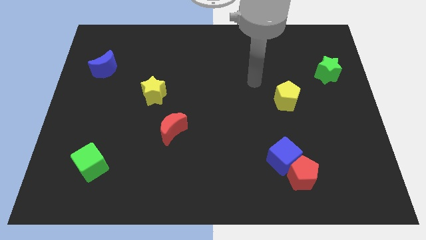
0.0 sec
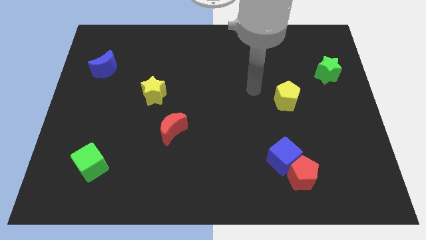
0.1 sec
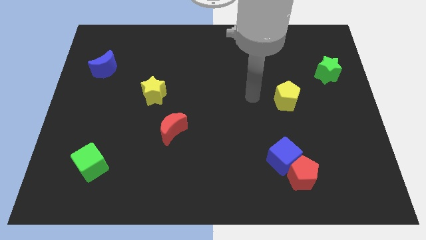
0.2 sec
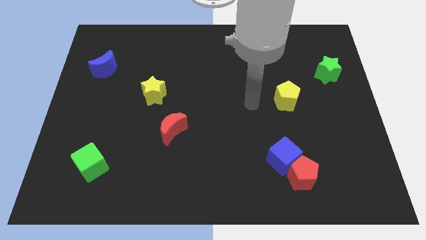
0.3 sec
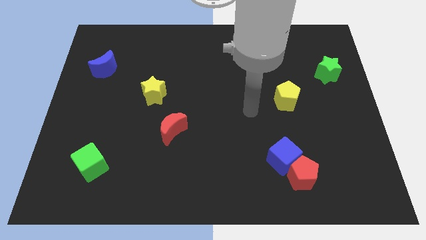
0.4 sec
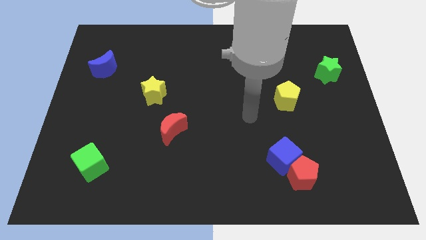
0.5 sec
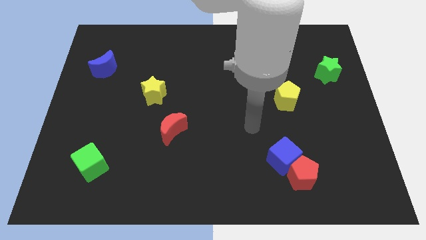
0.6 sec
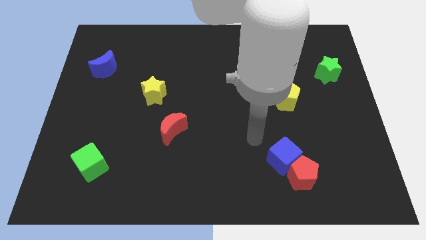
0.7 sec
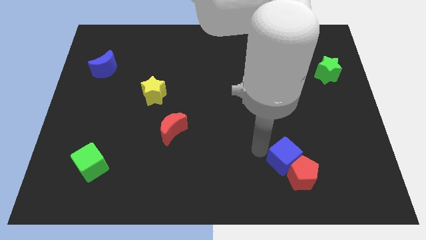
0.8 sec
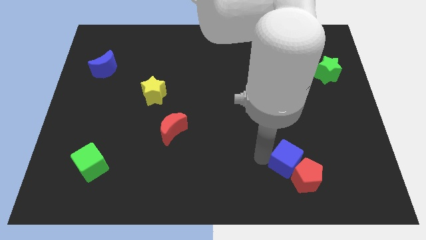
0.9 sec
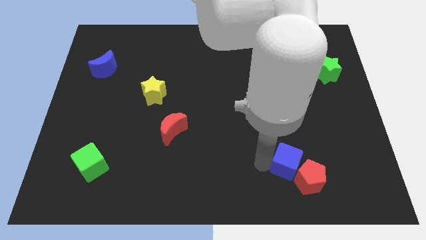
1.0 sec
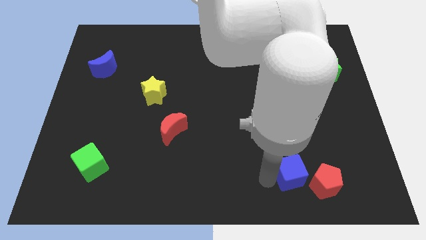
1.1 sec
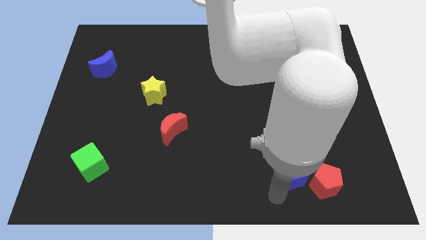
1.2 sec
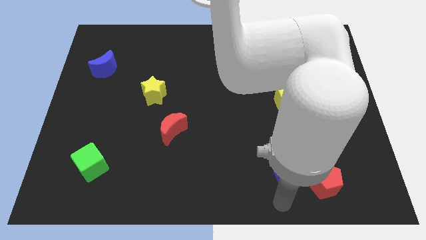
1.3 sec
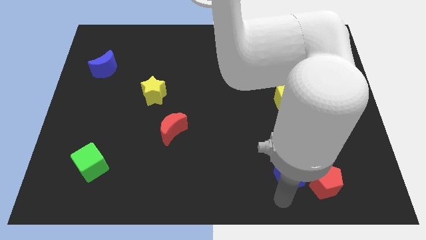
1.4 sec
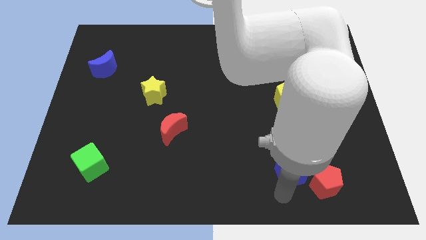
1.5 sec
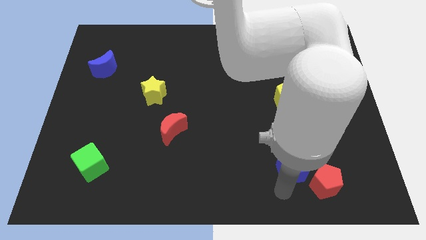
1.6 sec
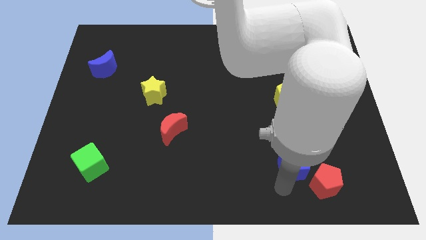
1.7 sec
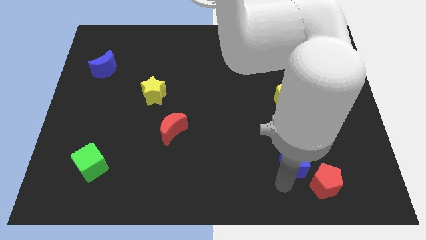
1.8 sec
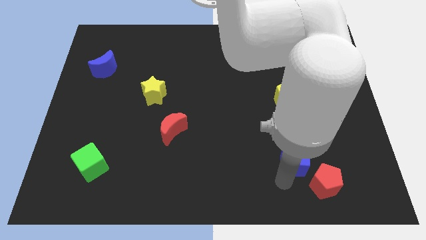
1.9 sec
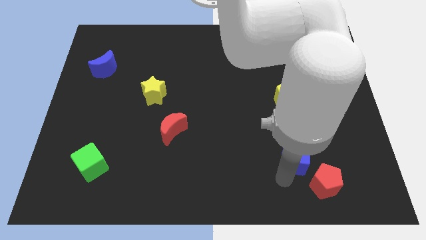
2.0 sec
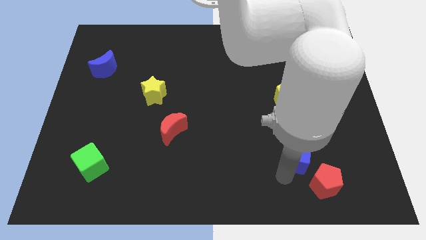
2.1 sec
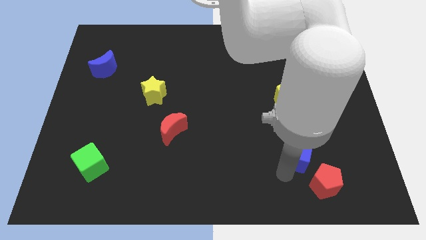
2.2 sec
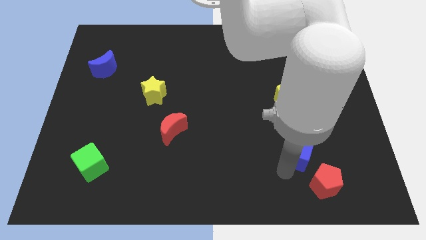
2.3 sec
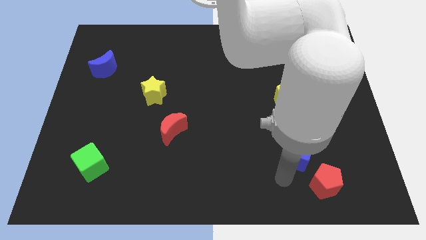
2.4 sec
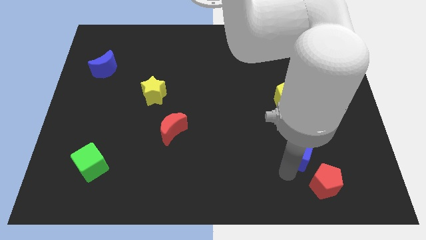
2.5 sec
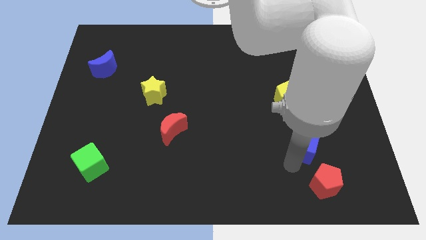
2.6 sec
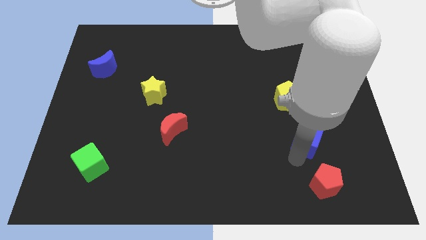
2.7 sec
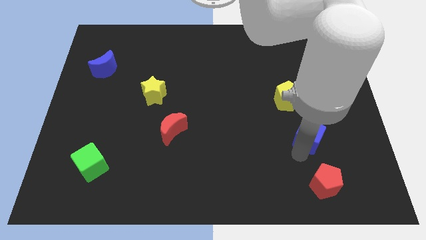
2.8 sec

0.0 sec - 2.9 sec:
slightly push the blue cube diagonally upwards and to the right

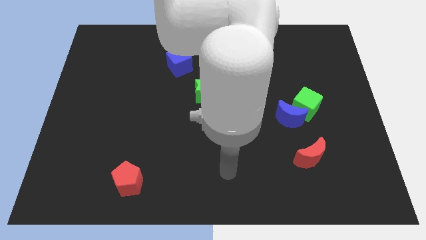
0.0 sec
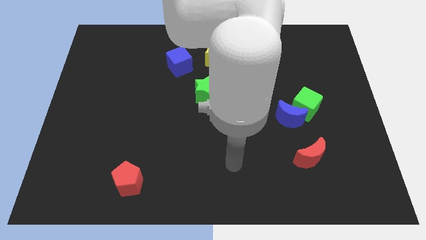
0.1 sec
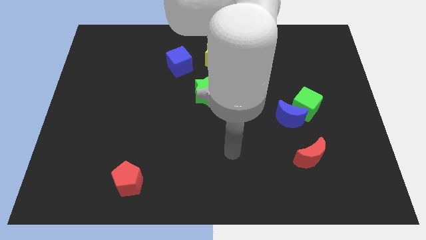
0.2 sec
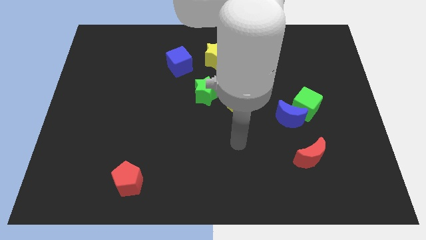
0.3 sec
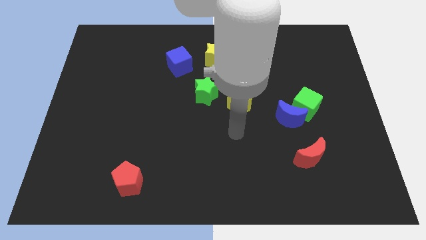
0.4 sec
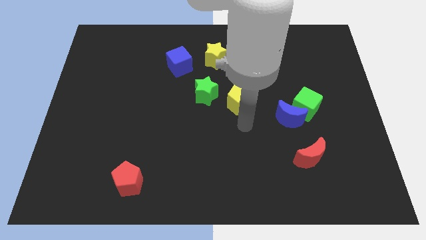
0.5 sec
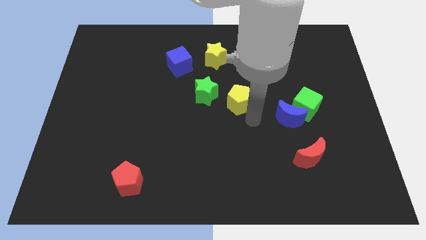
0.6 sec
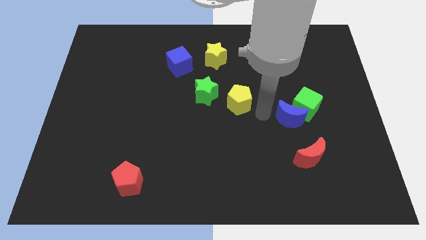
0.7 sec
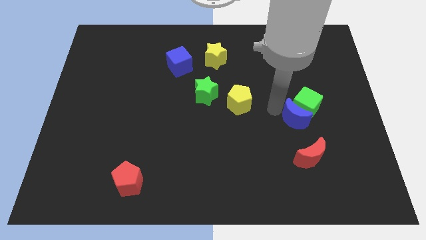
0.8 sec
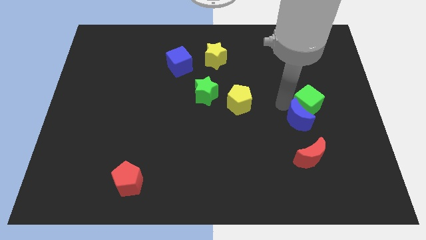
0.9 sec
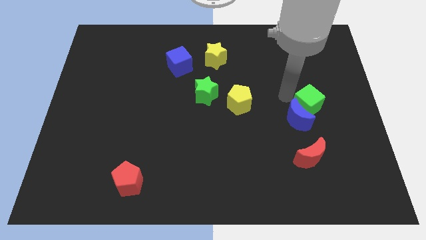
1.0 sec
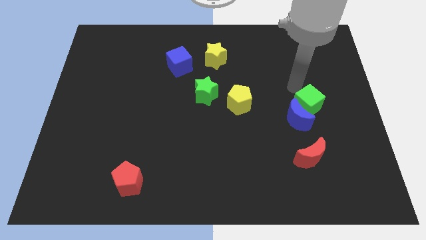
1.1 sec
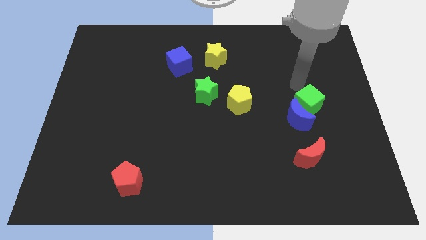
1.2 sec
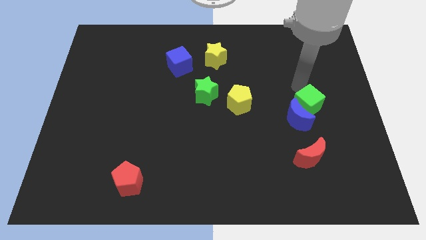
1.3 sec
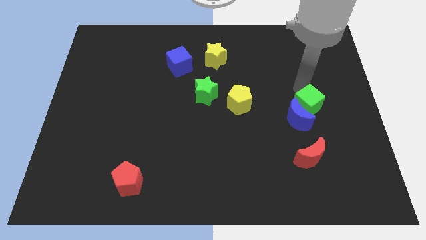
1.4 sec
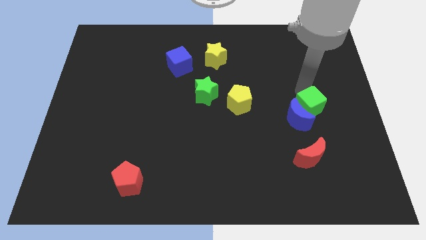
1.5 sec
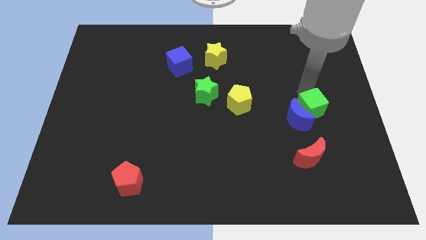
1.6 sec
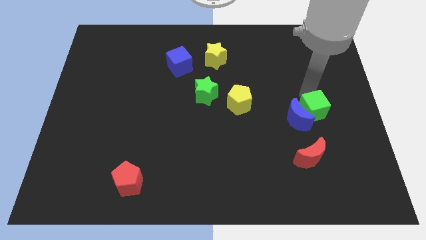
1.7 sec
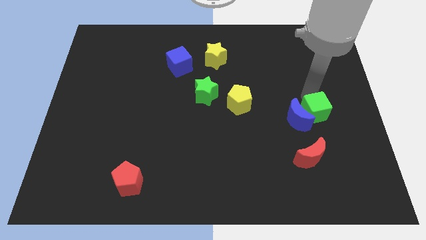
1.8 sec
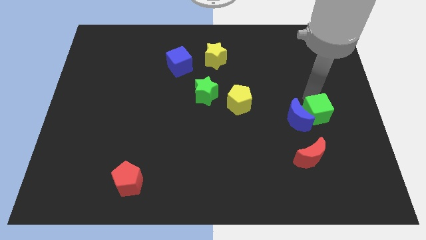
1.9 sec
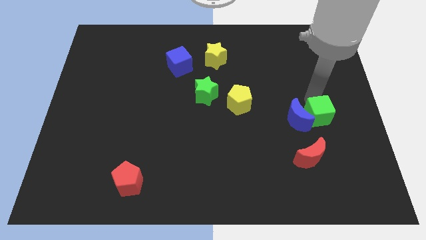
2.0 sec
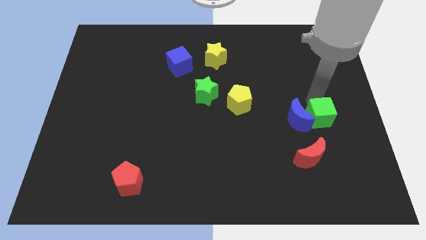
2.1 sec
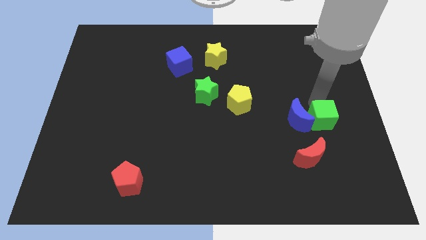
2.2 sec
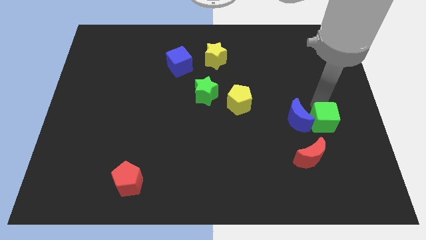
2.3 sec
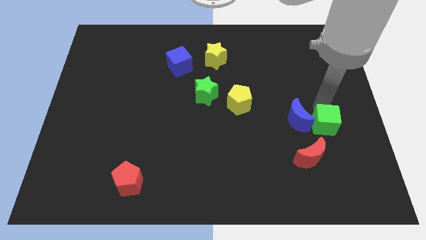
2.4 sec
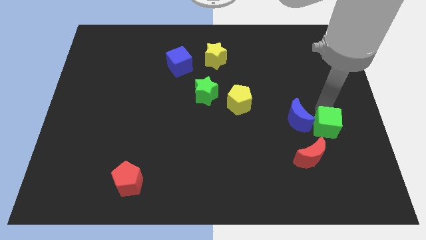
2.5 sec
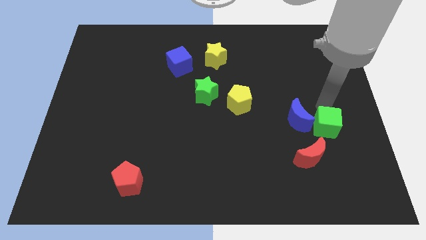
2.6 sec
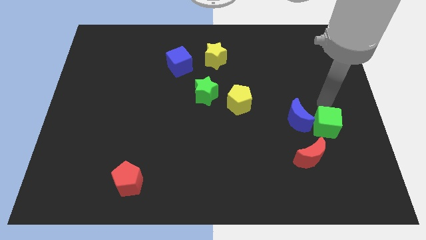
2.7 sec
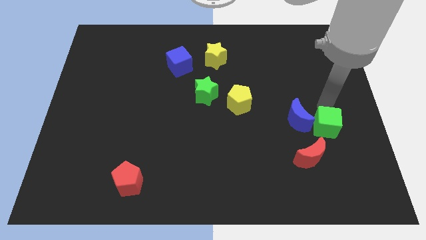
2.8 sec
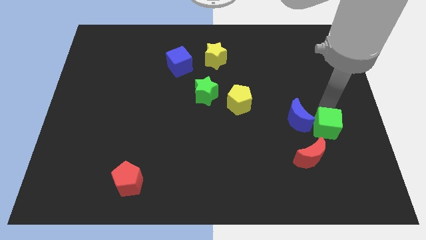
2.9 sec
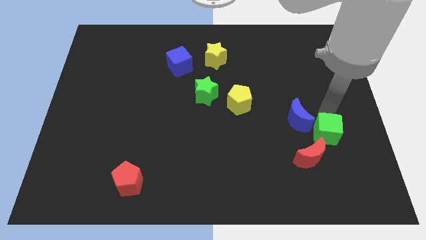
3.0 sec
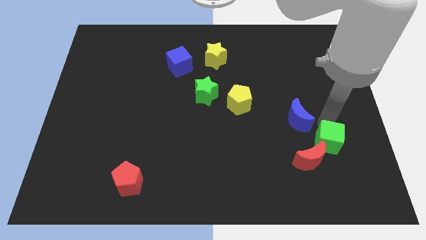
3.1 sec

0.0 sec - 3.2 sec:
slide the green cube a bit downwards

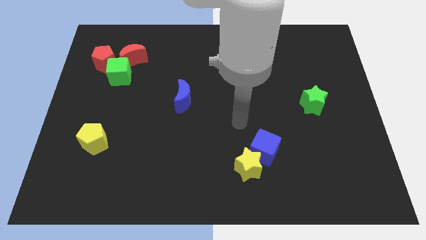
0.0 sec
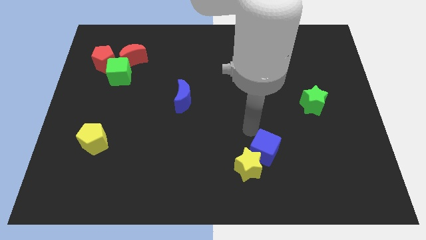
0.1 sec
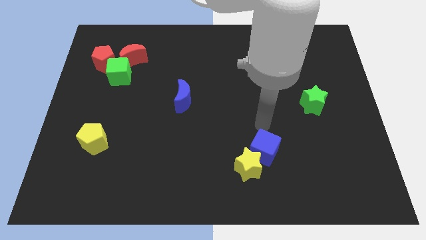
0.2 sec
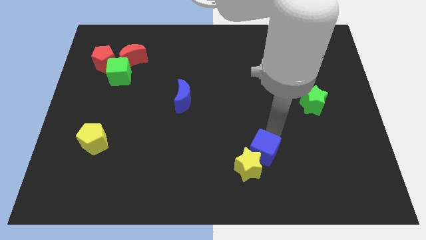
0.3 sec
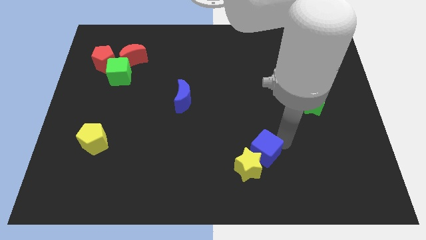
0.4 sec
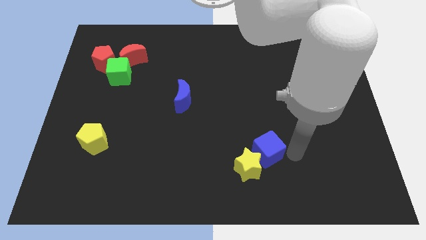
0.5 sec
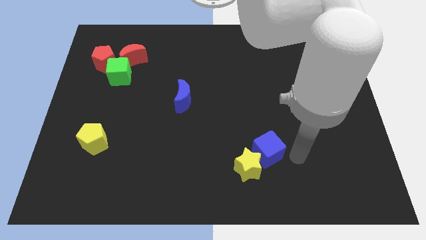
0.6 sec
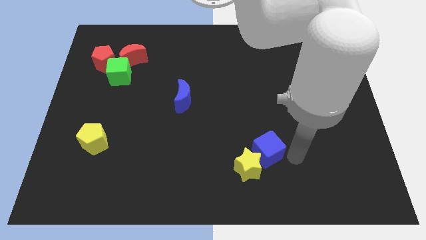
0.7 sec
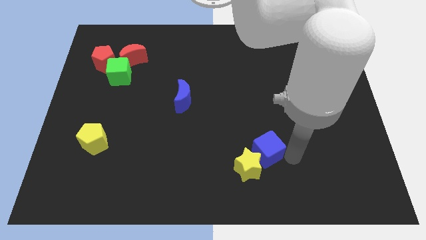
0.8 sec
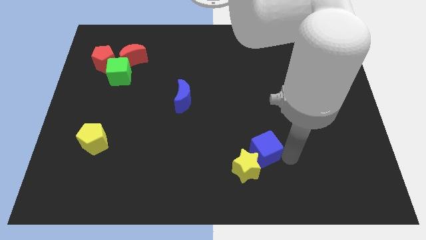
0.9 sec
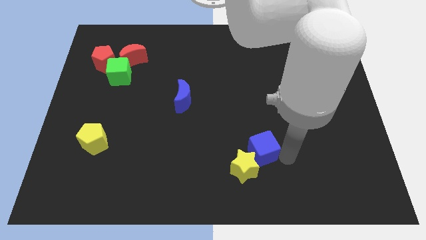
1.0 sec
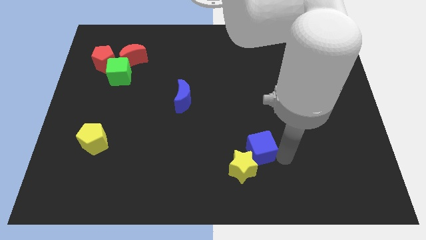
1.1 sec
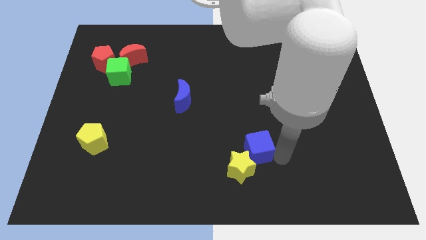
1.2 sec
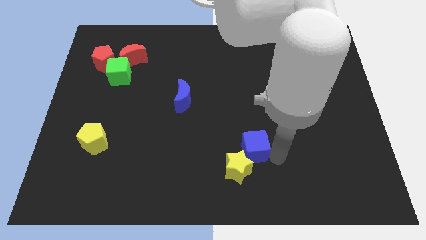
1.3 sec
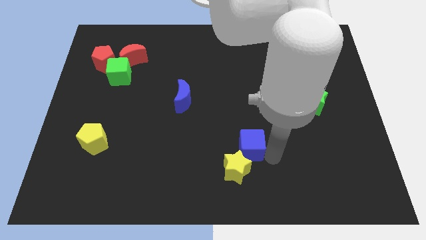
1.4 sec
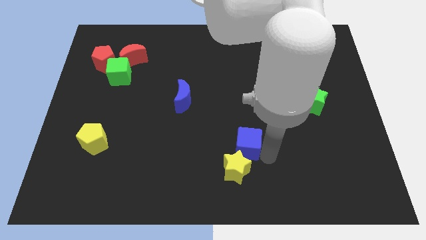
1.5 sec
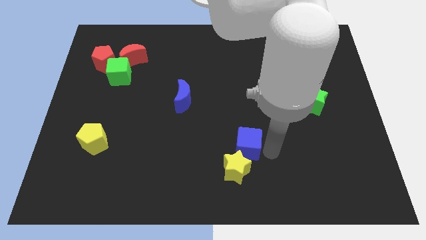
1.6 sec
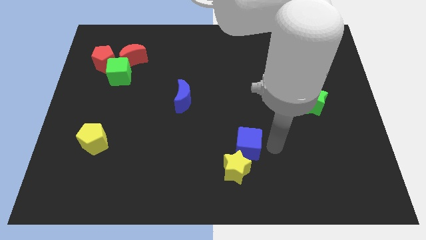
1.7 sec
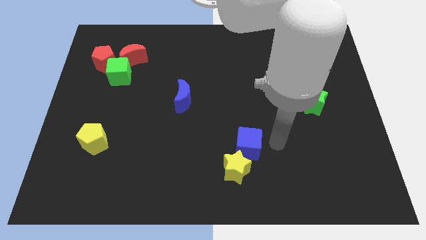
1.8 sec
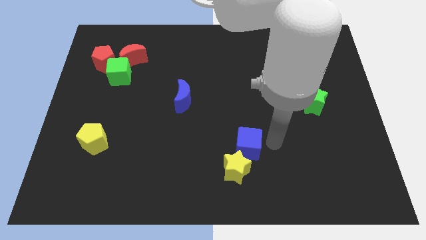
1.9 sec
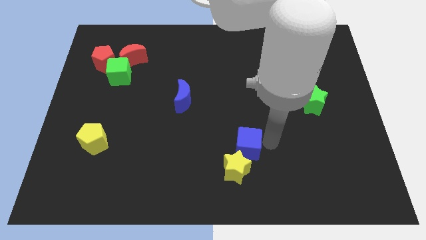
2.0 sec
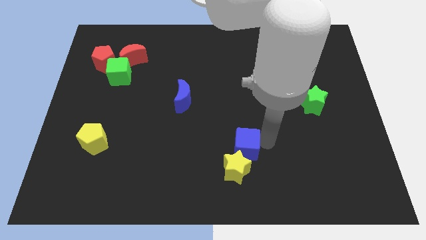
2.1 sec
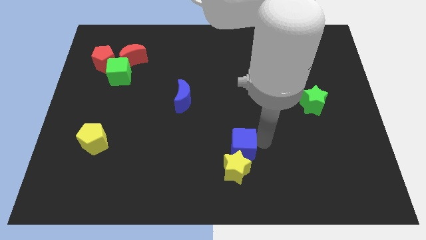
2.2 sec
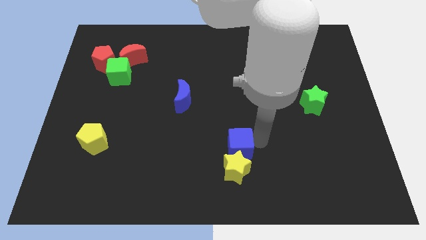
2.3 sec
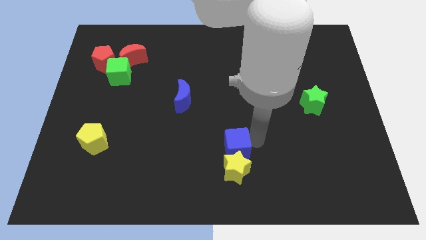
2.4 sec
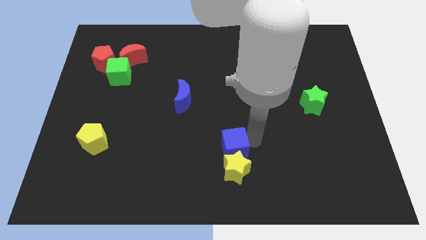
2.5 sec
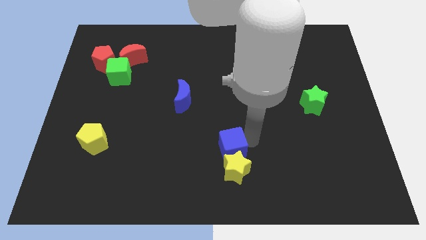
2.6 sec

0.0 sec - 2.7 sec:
push the blue cube a bit left
